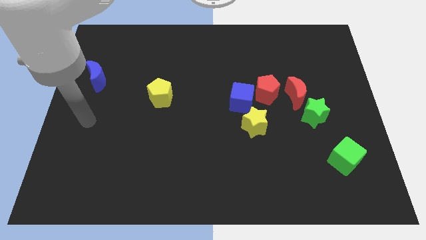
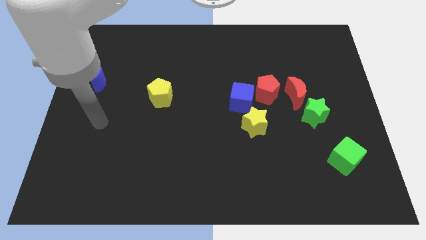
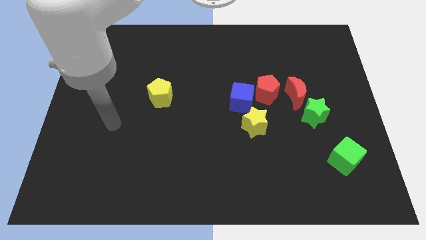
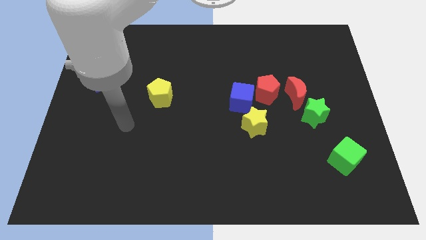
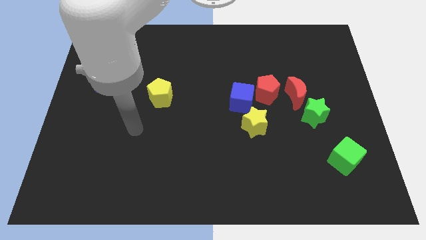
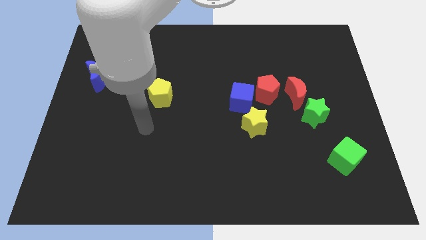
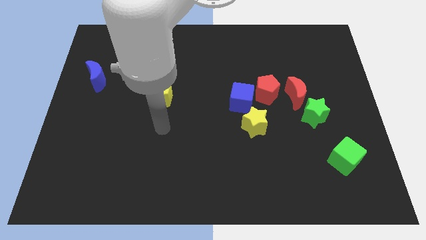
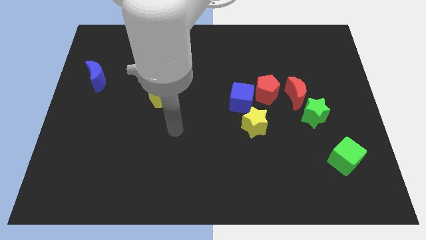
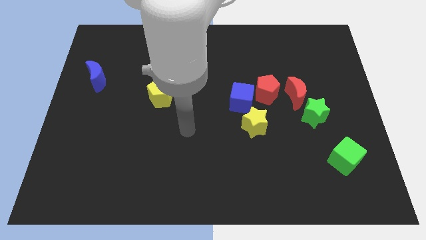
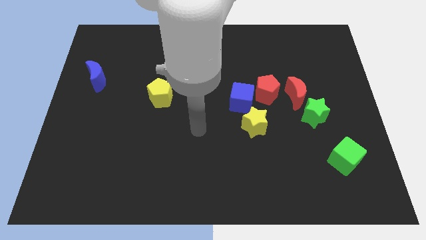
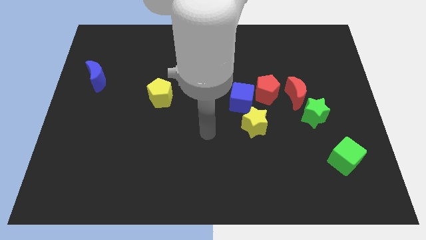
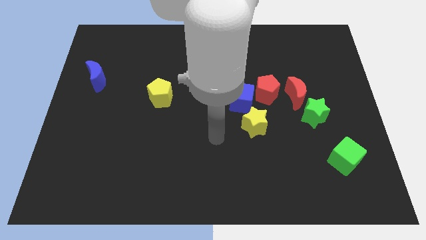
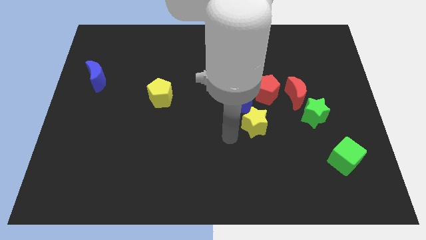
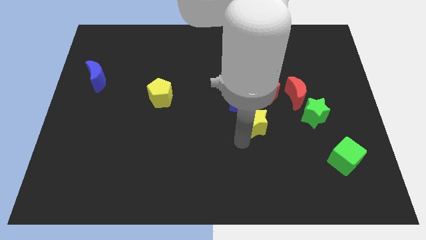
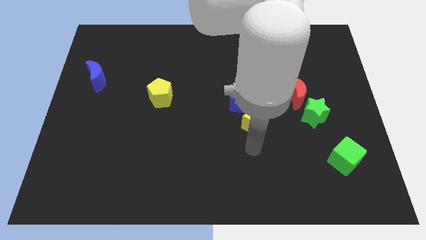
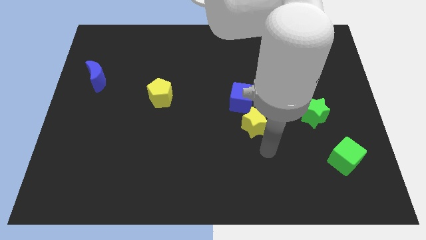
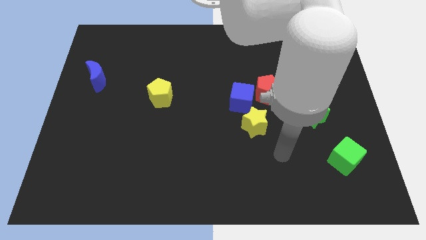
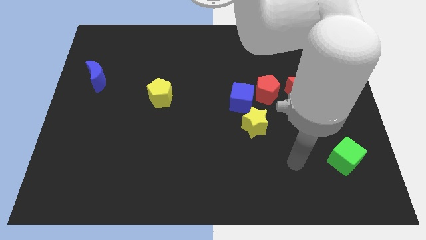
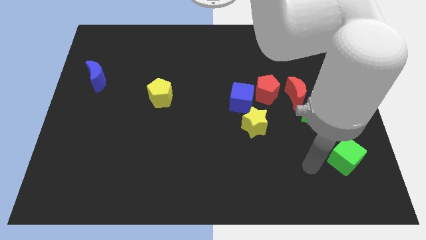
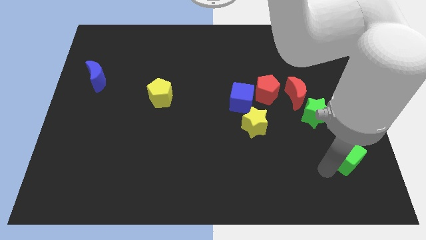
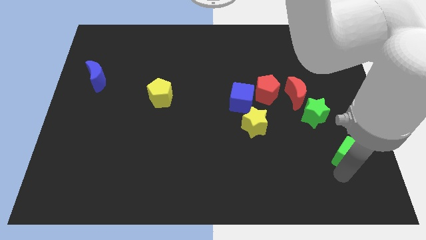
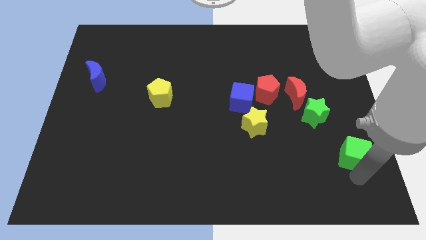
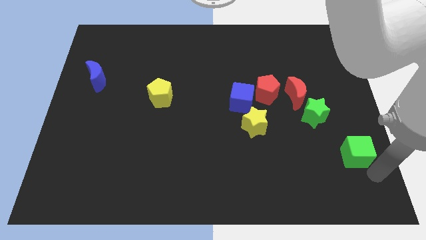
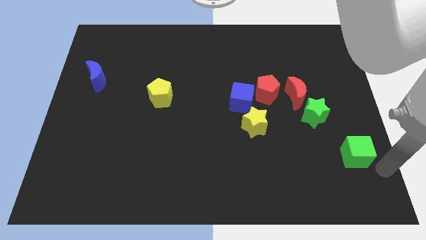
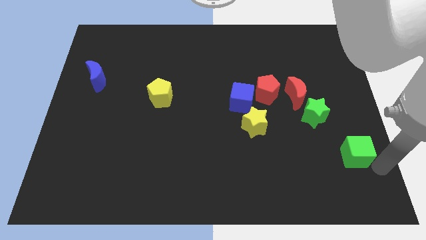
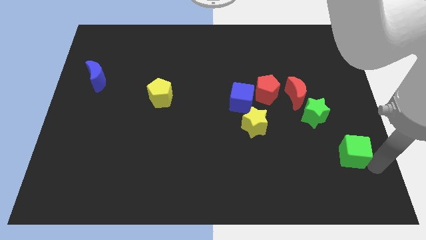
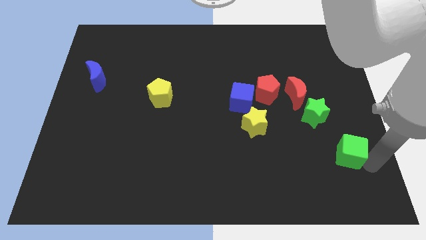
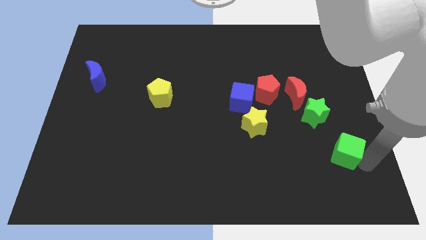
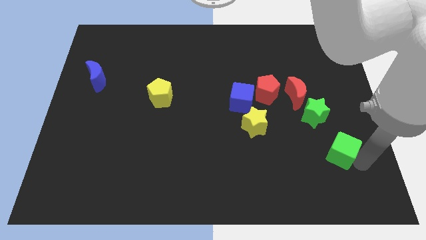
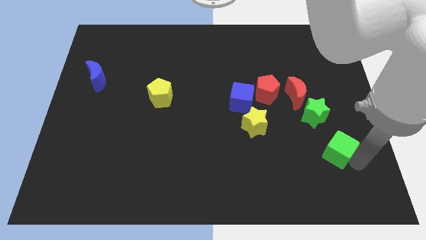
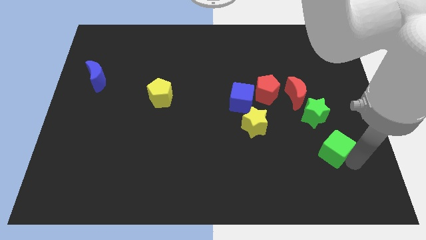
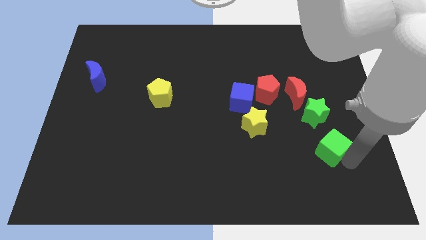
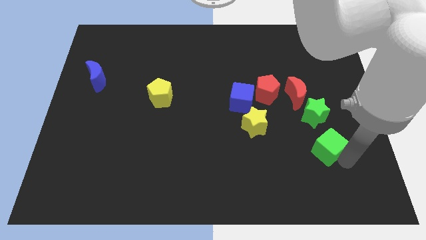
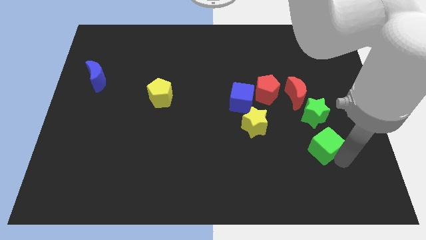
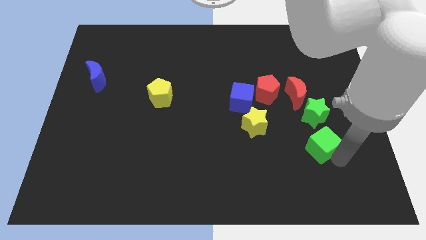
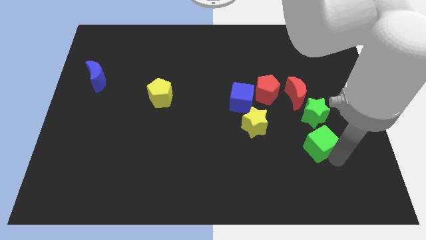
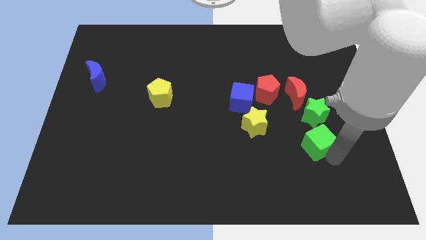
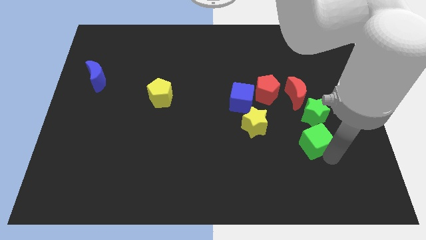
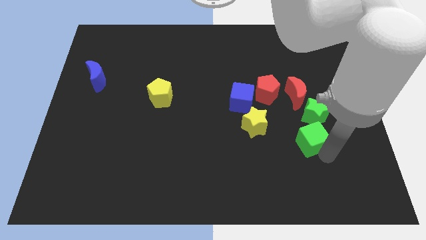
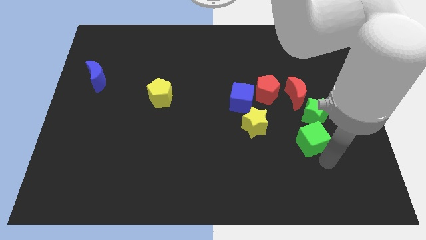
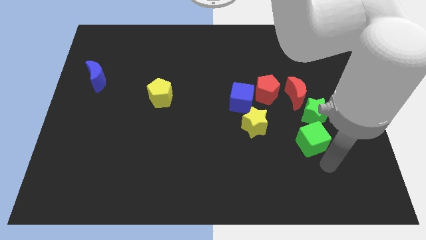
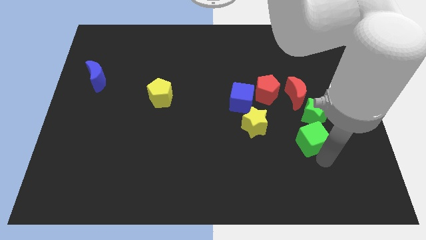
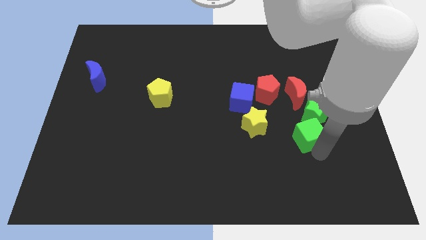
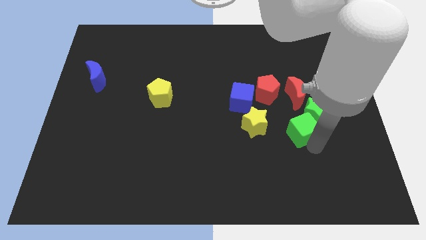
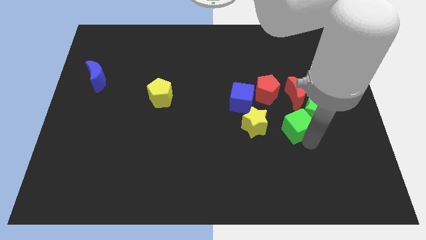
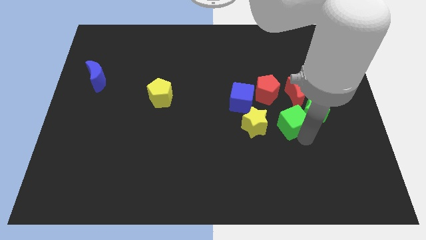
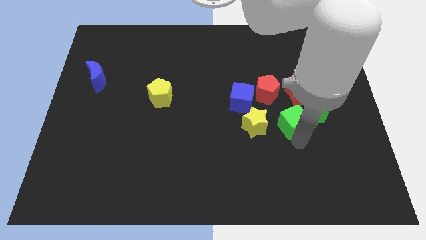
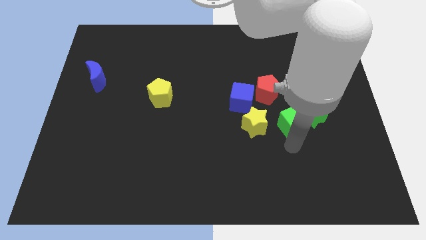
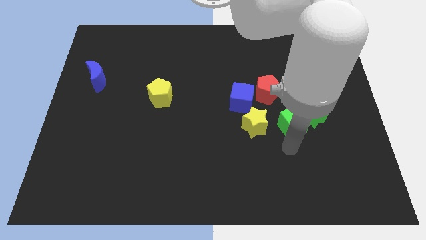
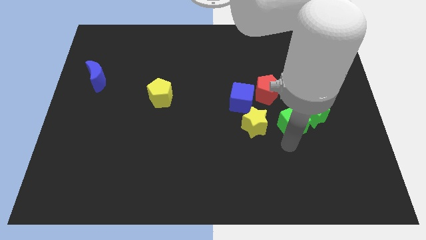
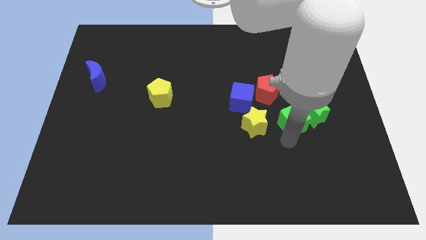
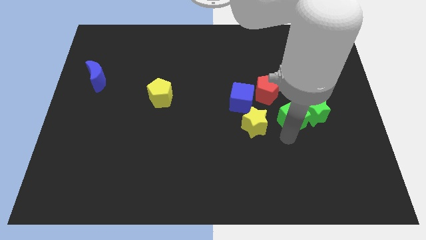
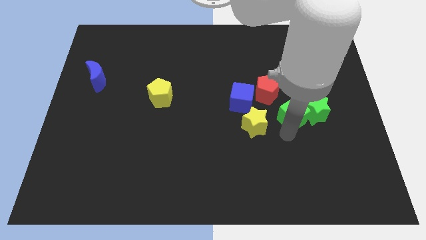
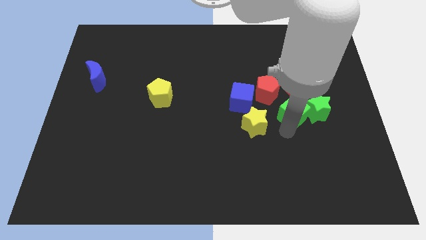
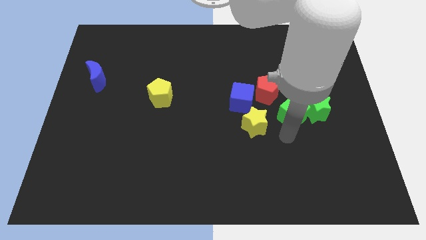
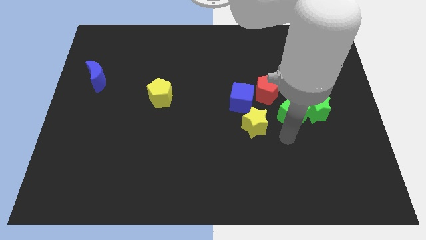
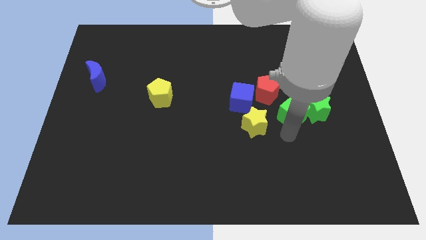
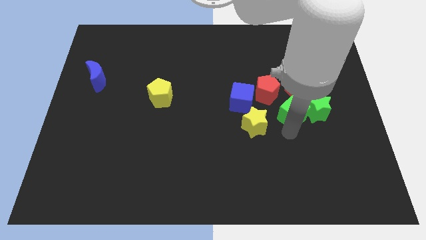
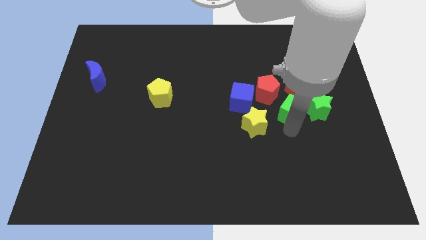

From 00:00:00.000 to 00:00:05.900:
move the green cube to the red moon
